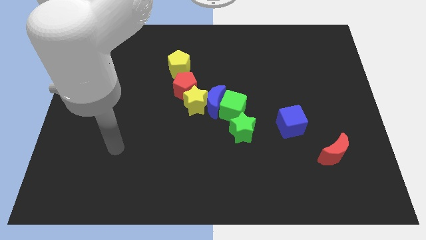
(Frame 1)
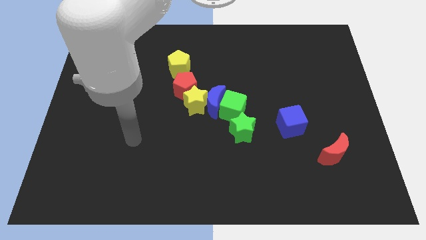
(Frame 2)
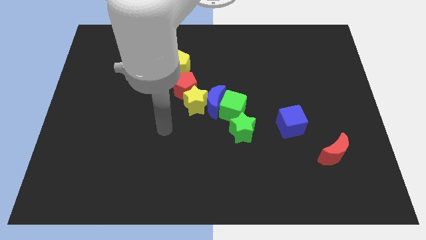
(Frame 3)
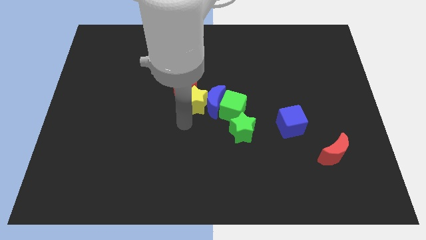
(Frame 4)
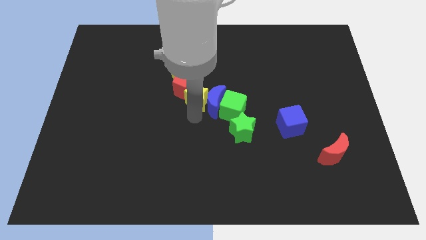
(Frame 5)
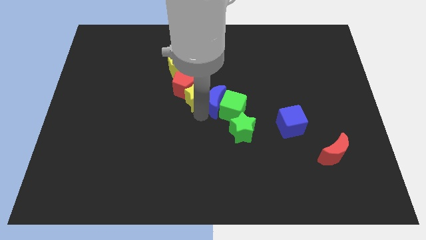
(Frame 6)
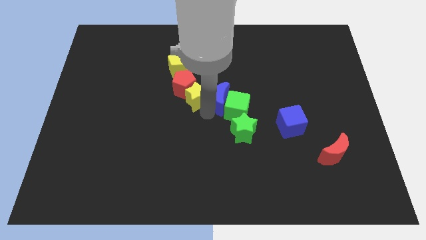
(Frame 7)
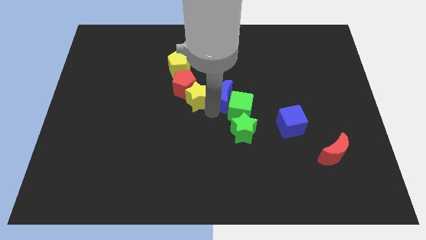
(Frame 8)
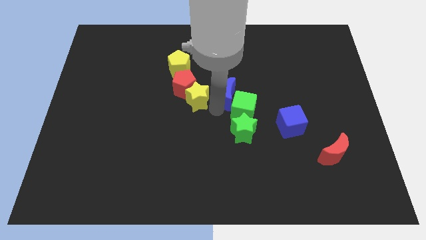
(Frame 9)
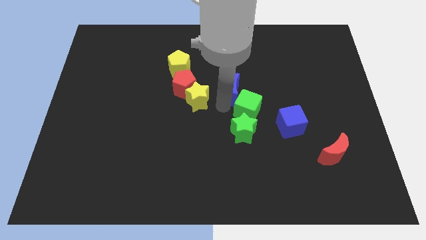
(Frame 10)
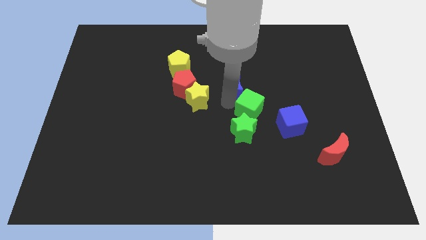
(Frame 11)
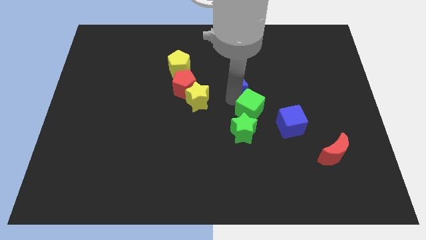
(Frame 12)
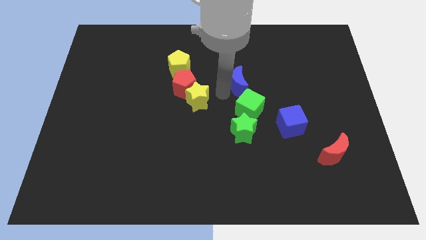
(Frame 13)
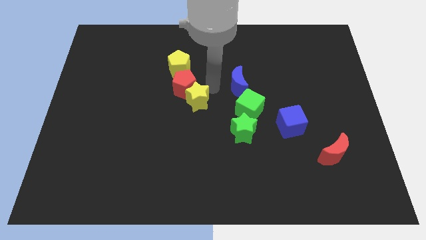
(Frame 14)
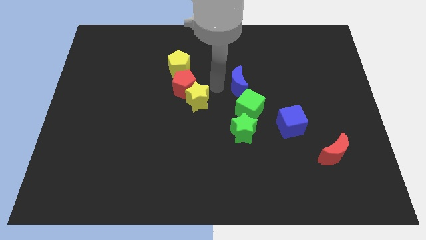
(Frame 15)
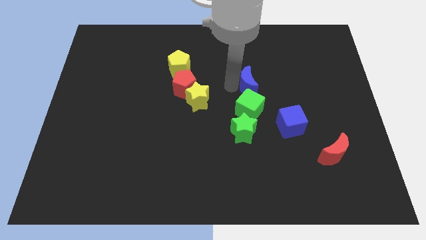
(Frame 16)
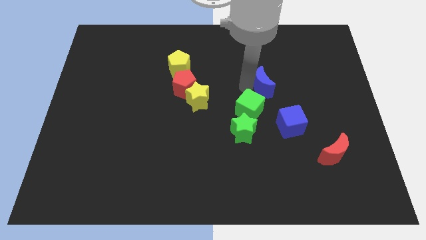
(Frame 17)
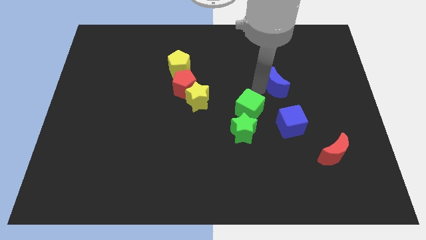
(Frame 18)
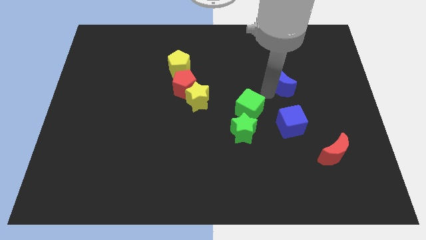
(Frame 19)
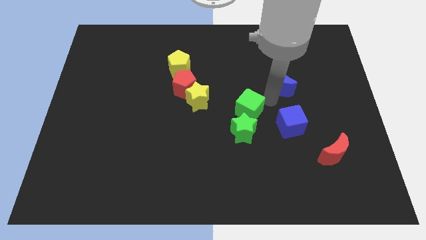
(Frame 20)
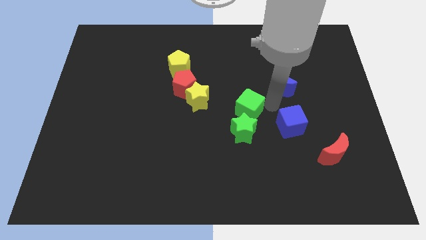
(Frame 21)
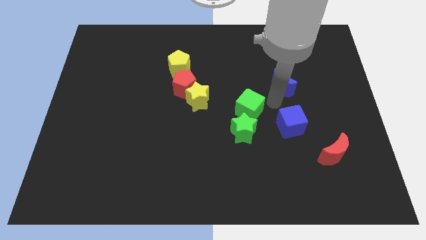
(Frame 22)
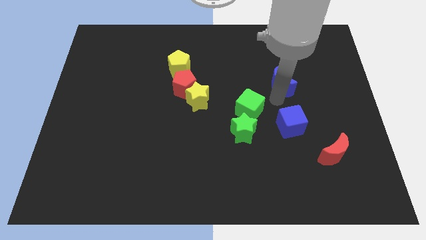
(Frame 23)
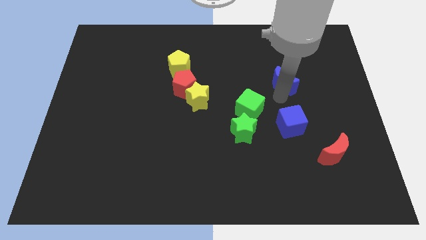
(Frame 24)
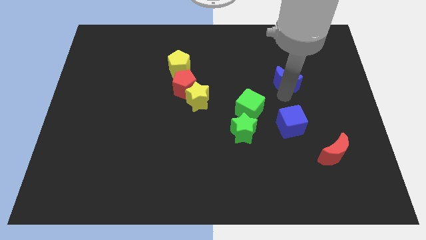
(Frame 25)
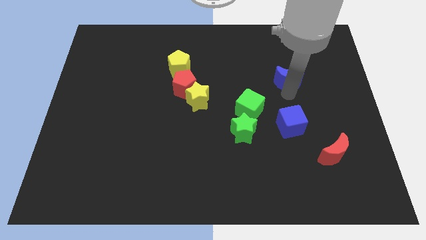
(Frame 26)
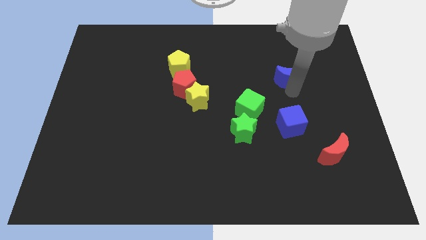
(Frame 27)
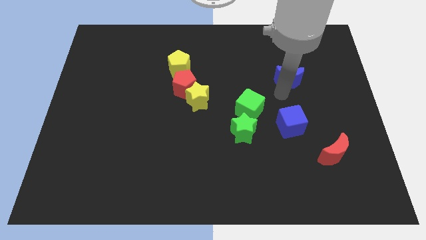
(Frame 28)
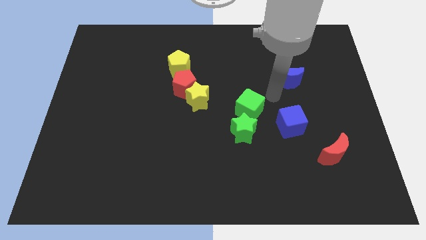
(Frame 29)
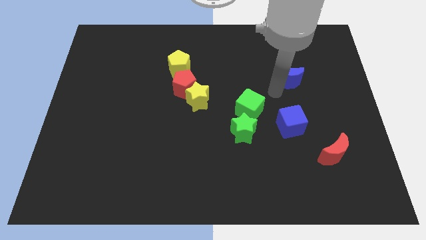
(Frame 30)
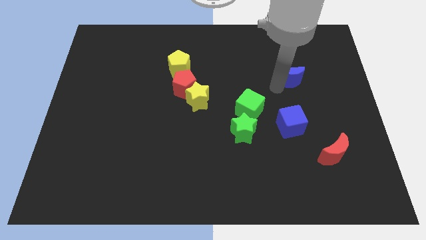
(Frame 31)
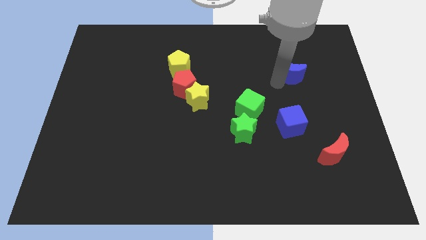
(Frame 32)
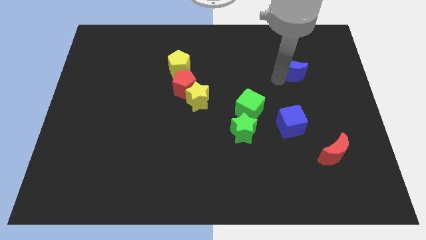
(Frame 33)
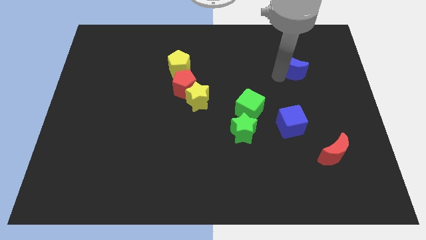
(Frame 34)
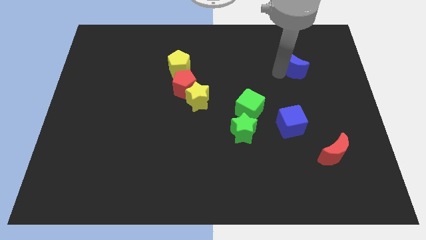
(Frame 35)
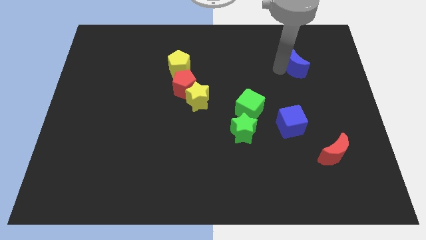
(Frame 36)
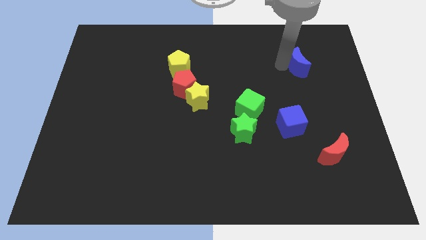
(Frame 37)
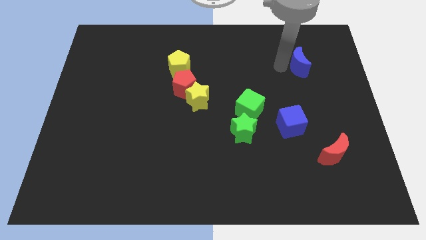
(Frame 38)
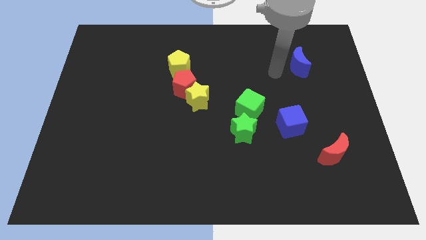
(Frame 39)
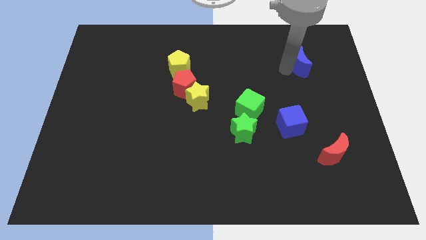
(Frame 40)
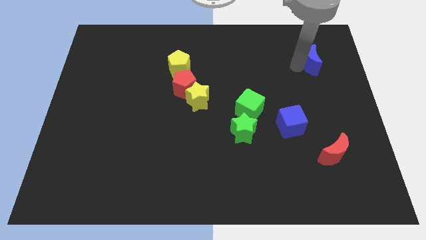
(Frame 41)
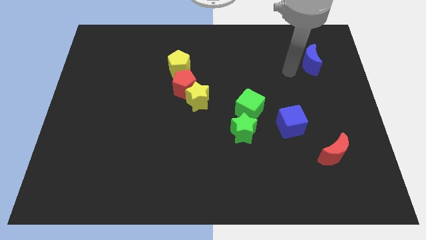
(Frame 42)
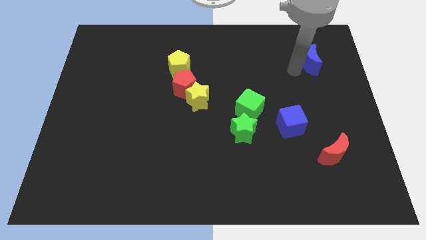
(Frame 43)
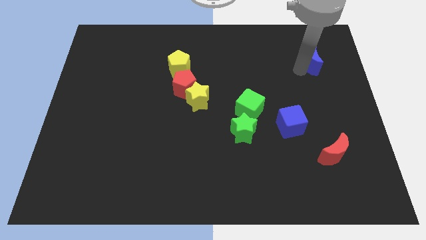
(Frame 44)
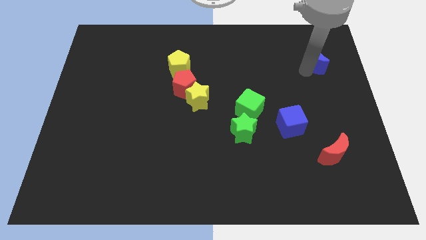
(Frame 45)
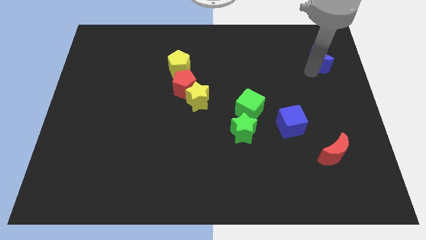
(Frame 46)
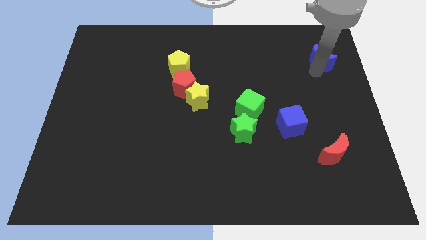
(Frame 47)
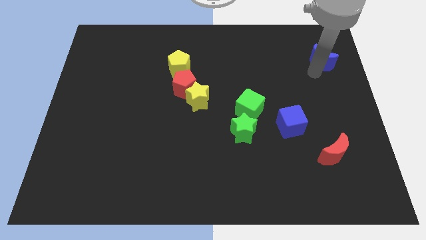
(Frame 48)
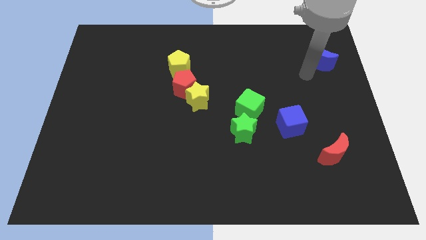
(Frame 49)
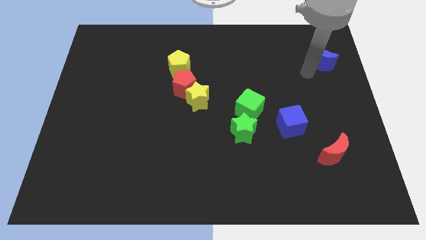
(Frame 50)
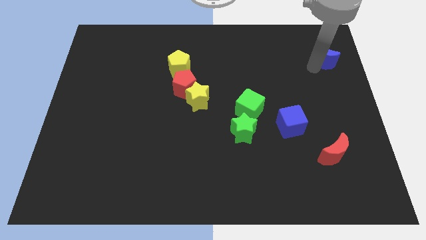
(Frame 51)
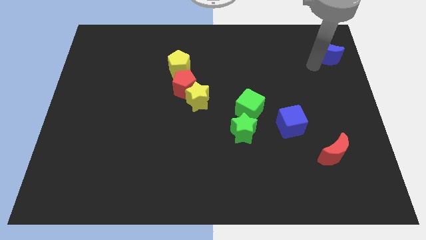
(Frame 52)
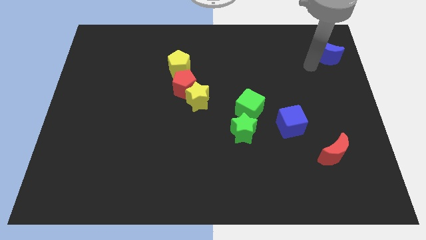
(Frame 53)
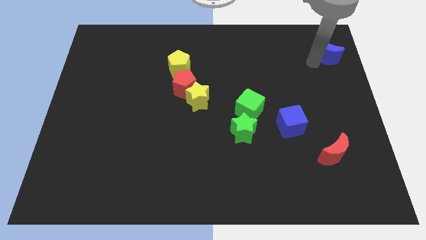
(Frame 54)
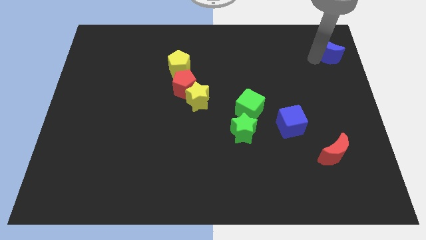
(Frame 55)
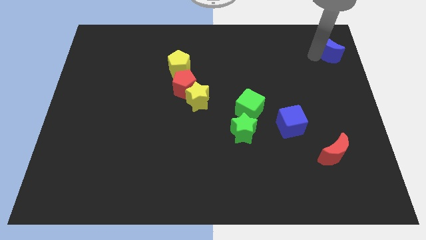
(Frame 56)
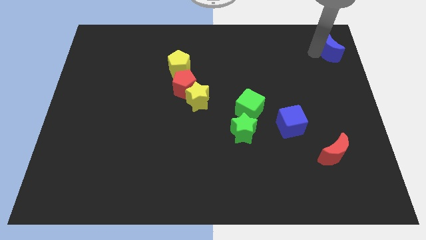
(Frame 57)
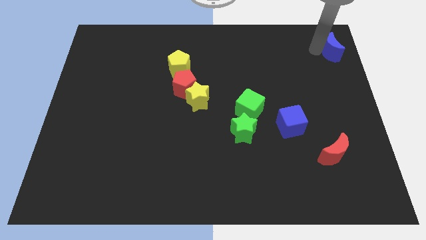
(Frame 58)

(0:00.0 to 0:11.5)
move the blue moon to the upper right corner

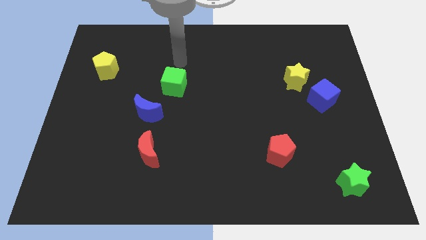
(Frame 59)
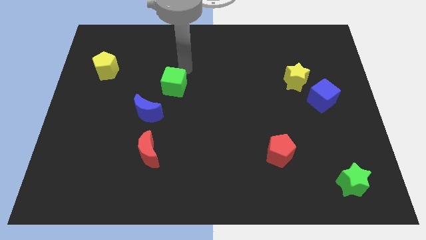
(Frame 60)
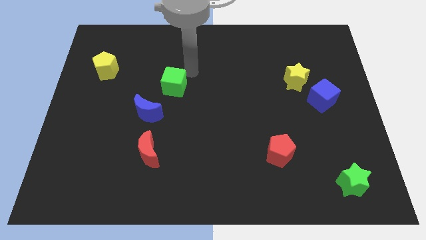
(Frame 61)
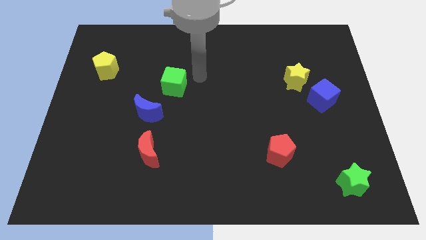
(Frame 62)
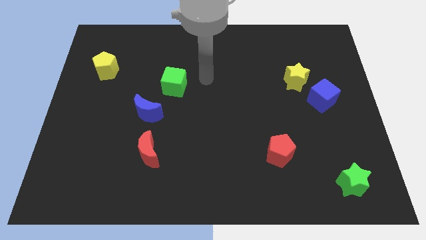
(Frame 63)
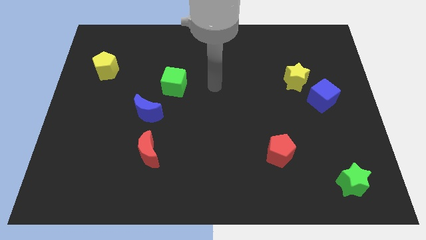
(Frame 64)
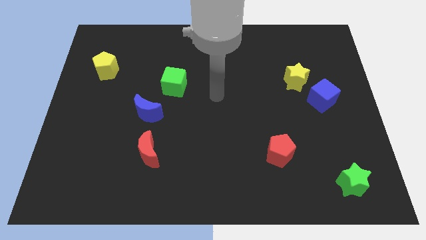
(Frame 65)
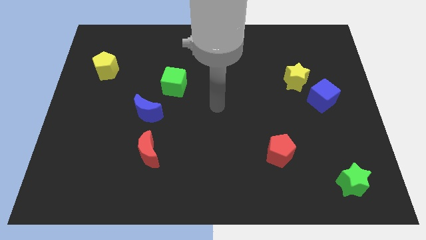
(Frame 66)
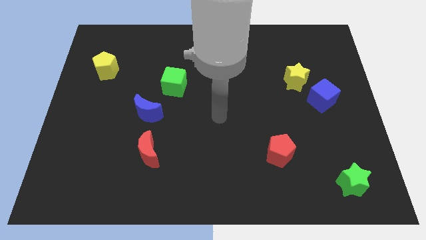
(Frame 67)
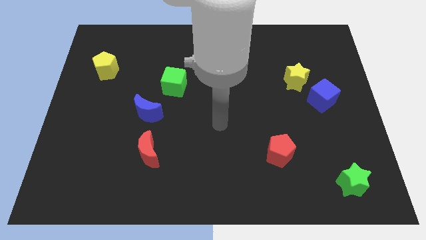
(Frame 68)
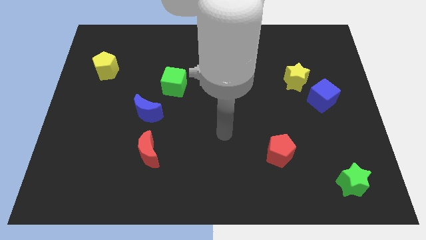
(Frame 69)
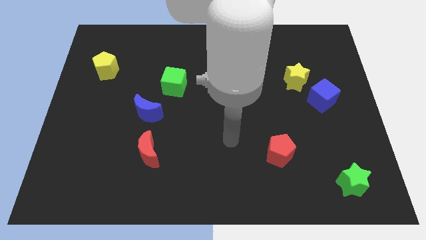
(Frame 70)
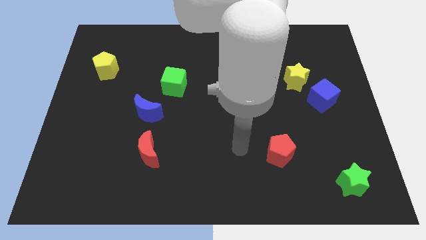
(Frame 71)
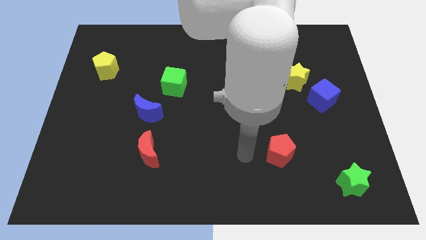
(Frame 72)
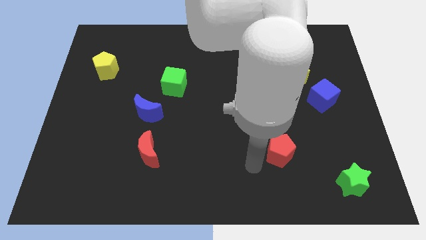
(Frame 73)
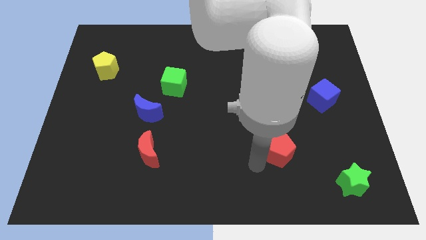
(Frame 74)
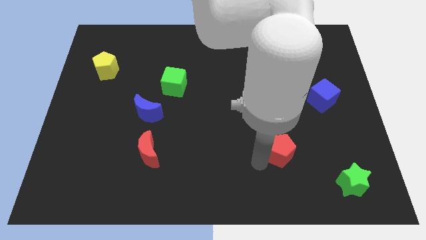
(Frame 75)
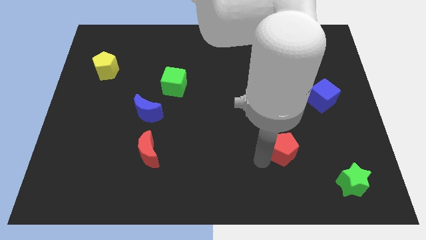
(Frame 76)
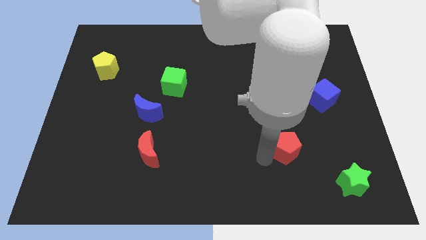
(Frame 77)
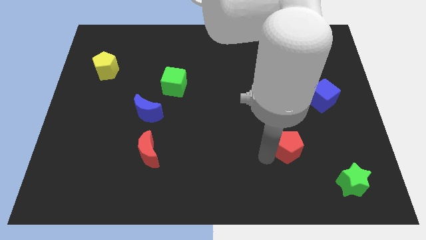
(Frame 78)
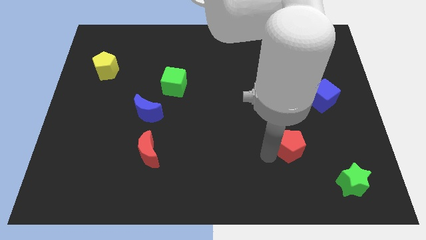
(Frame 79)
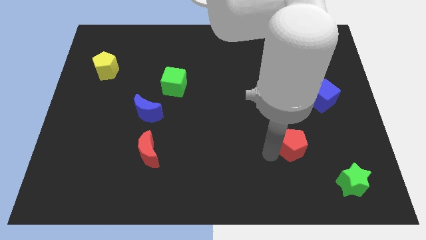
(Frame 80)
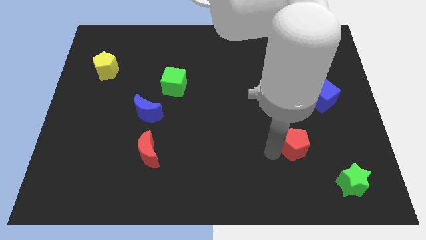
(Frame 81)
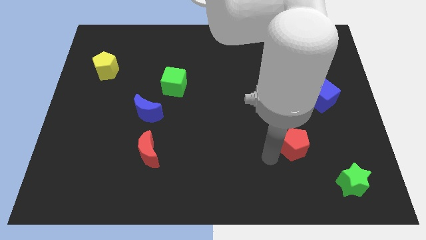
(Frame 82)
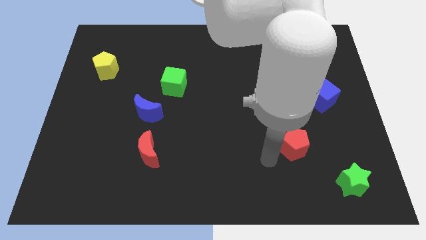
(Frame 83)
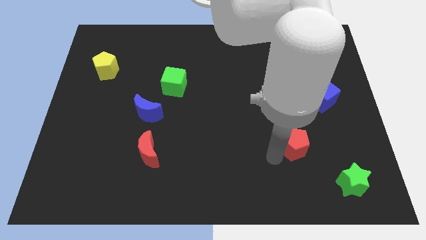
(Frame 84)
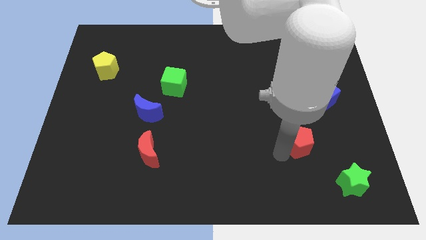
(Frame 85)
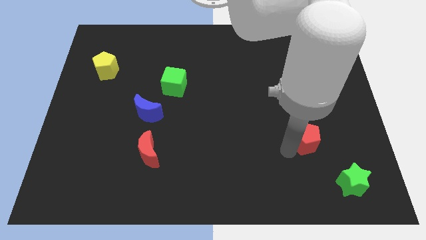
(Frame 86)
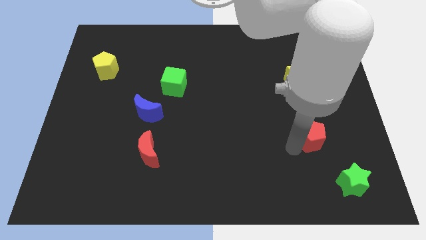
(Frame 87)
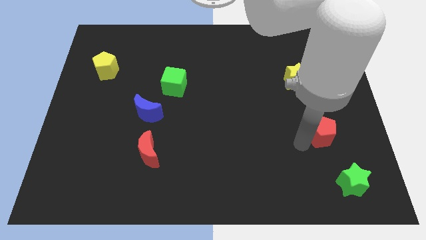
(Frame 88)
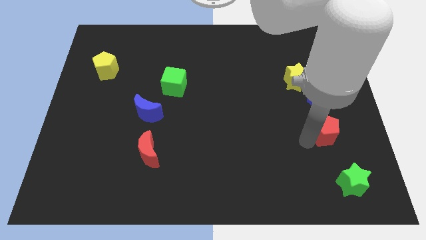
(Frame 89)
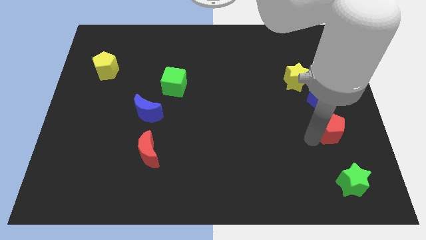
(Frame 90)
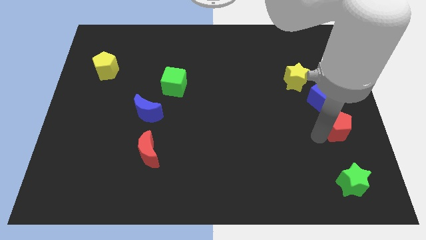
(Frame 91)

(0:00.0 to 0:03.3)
put the red pentagon to the right side of the board
